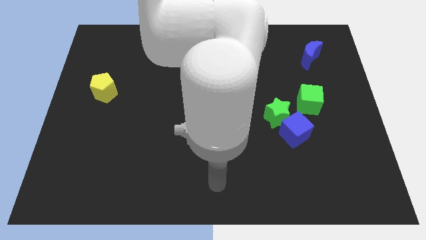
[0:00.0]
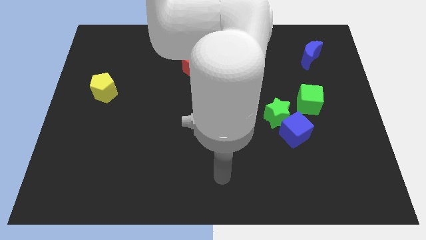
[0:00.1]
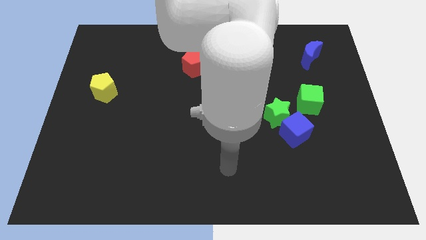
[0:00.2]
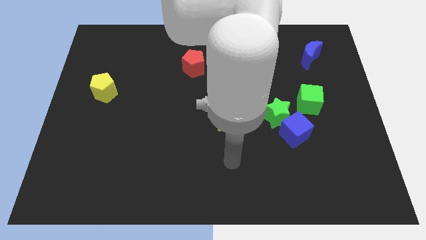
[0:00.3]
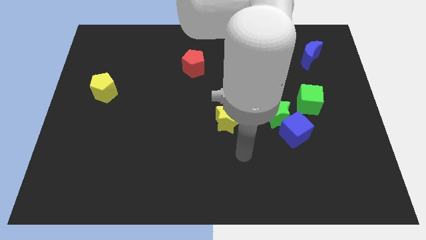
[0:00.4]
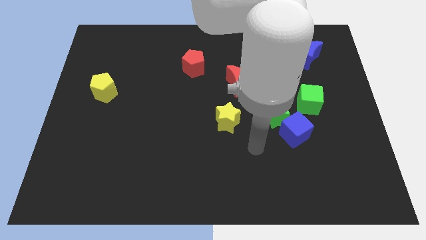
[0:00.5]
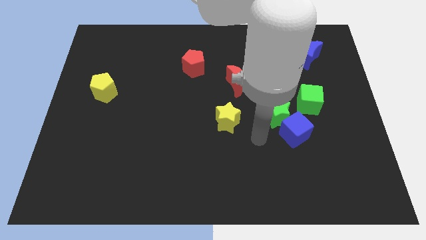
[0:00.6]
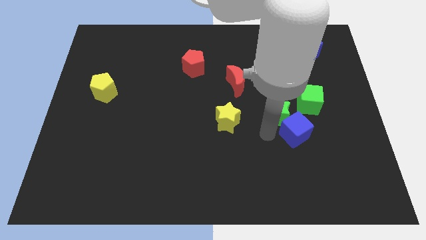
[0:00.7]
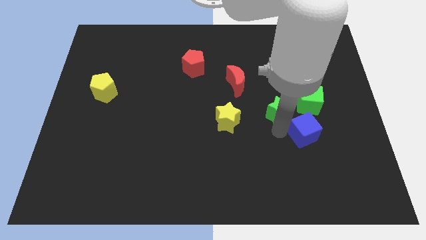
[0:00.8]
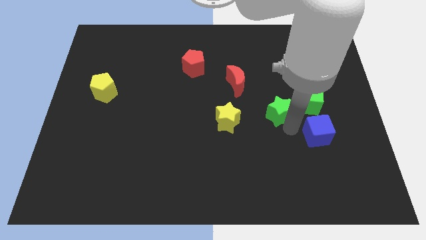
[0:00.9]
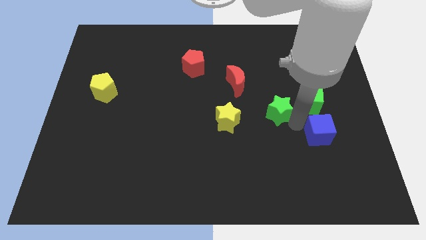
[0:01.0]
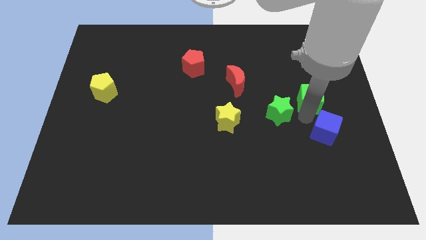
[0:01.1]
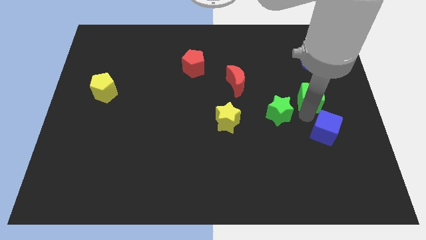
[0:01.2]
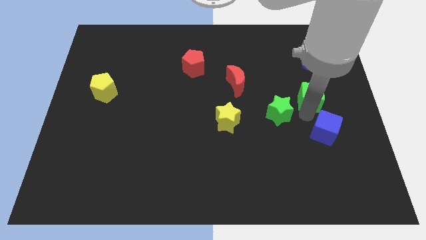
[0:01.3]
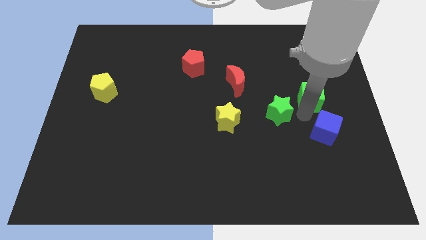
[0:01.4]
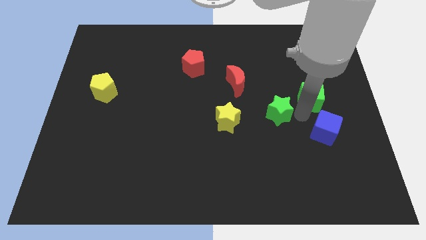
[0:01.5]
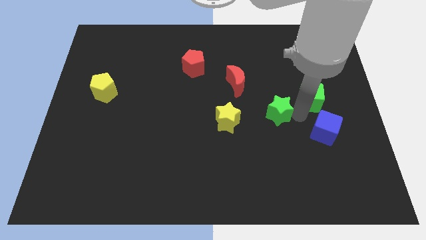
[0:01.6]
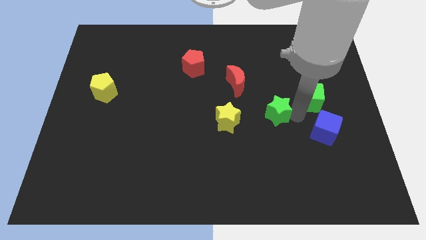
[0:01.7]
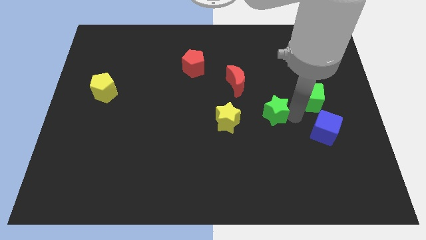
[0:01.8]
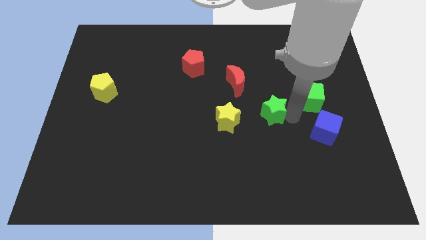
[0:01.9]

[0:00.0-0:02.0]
move the green star away from the blue cube and green cube

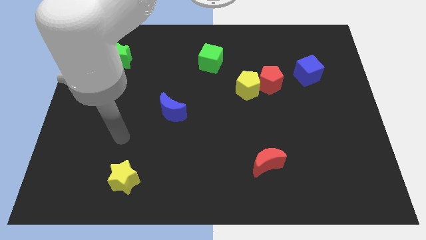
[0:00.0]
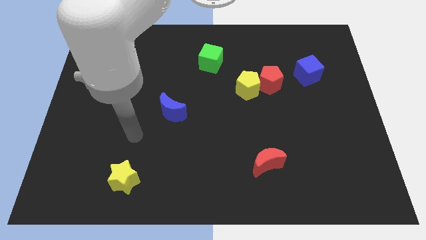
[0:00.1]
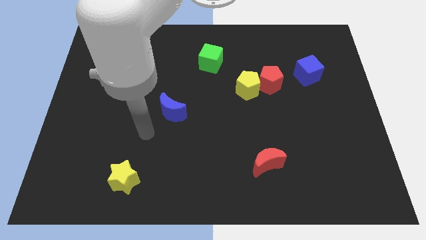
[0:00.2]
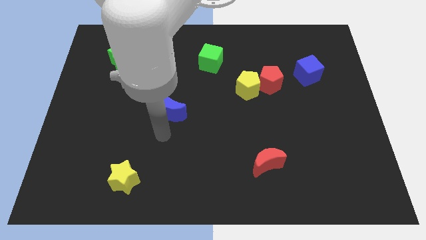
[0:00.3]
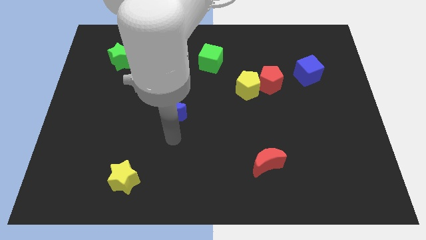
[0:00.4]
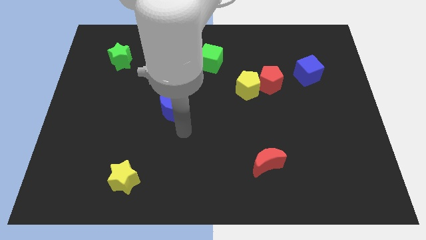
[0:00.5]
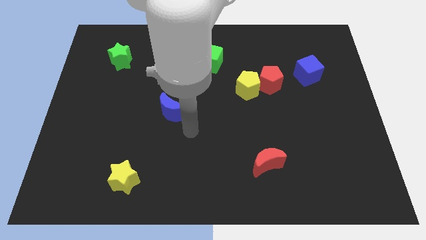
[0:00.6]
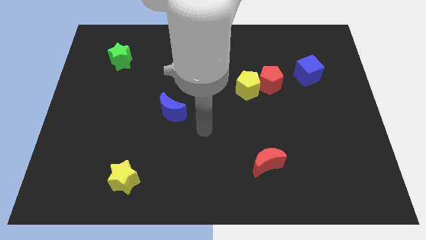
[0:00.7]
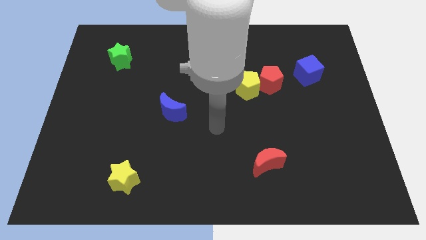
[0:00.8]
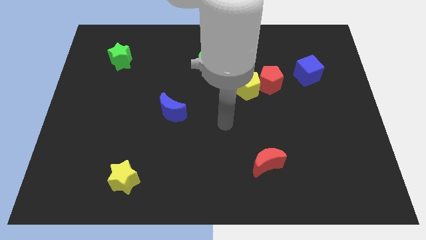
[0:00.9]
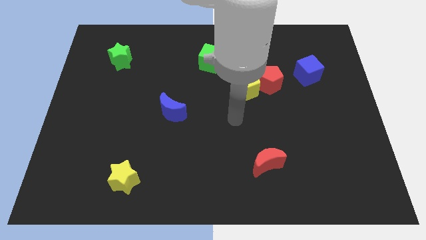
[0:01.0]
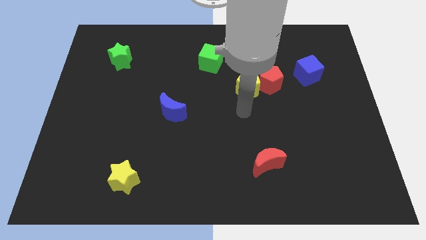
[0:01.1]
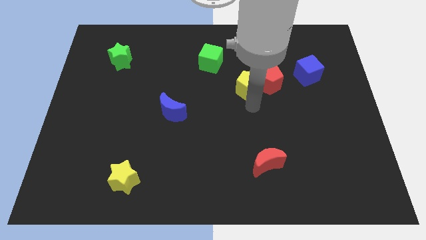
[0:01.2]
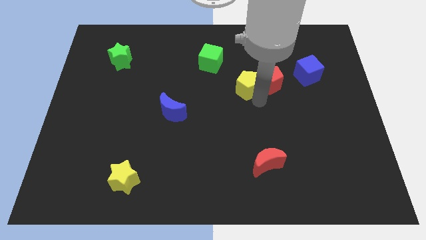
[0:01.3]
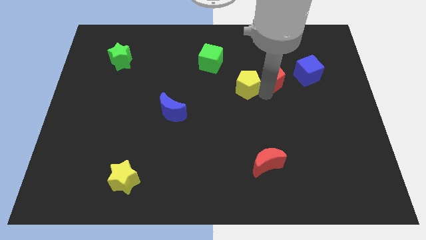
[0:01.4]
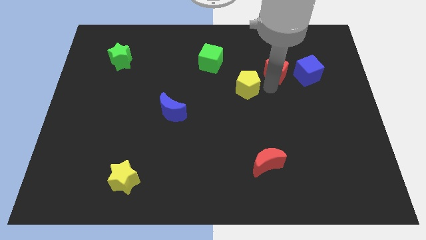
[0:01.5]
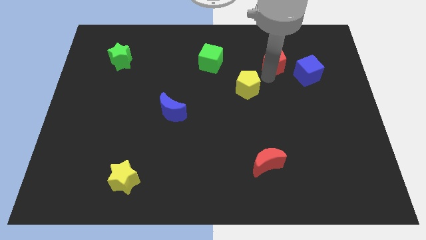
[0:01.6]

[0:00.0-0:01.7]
move the yellow pentagon away from the red pentagon

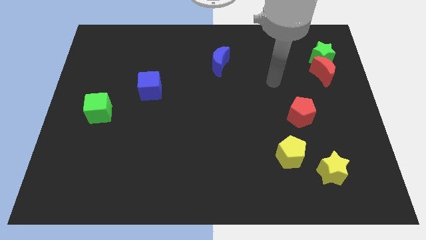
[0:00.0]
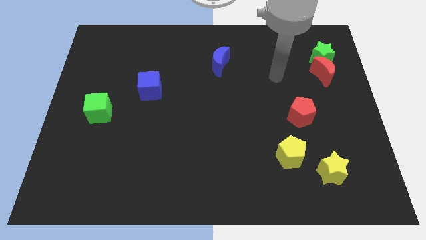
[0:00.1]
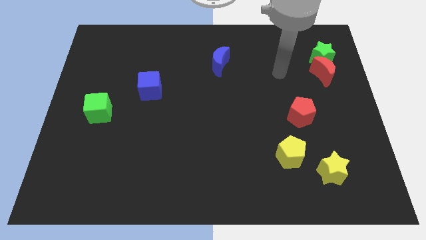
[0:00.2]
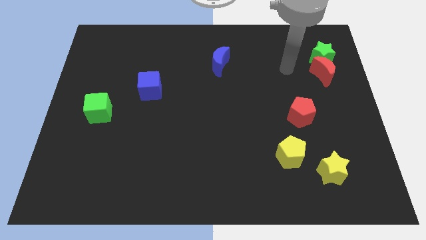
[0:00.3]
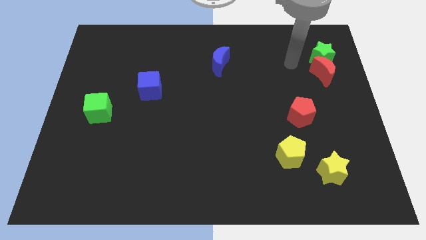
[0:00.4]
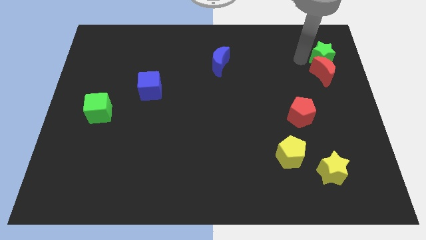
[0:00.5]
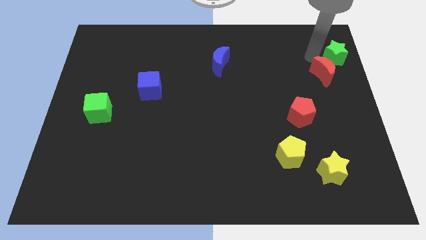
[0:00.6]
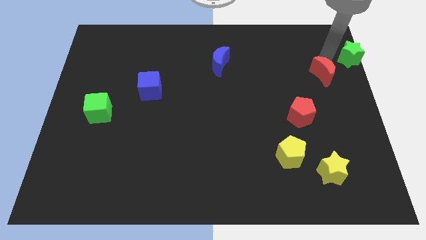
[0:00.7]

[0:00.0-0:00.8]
pull the red moon apart from the green star

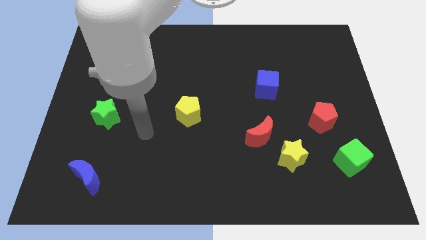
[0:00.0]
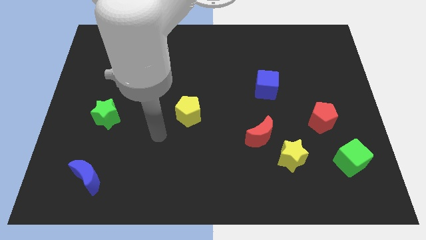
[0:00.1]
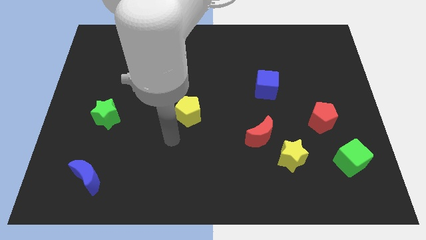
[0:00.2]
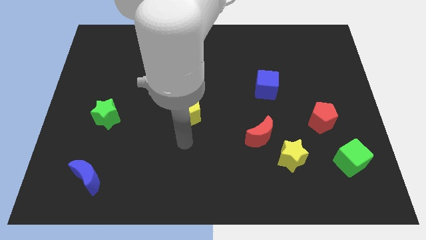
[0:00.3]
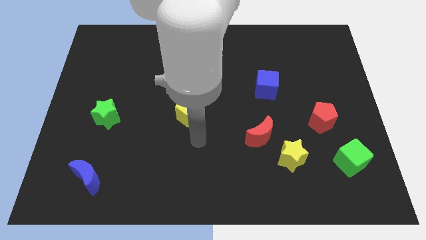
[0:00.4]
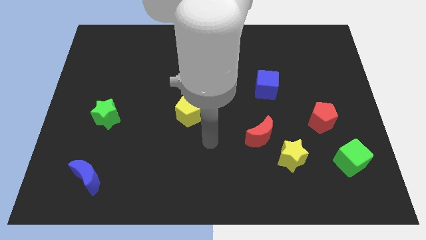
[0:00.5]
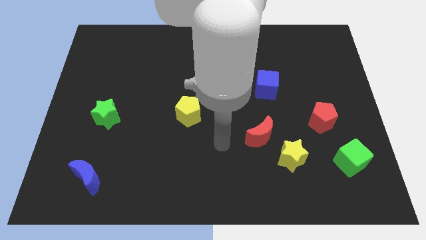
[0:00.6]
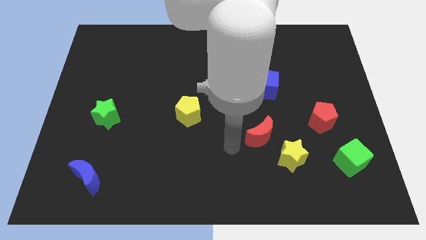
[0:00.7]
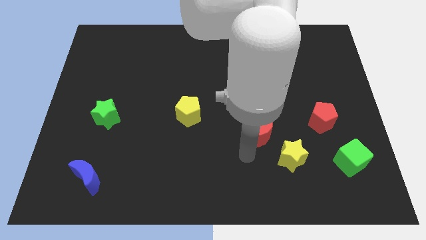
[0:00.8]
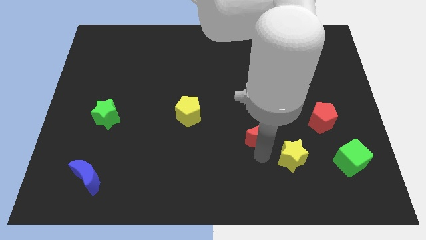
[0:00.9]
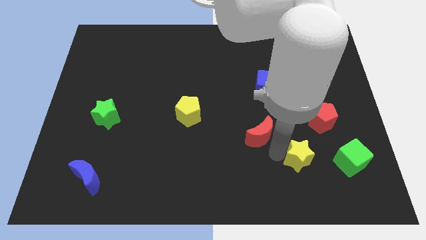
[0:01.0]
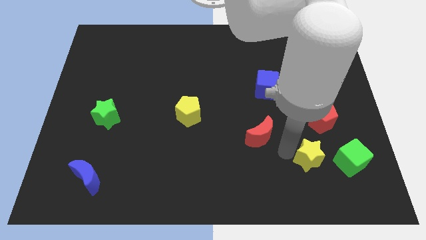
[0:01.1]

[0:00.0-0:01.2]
pull the red moon apart from the yellow star

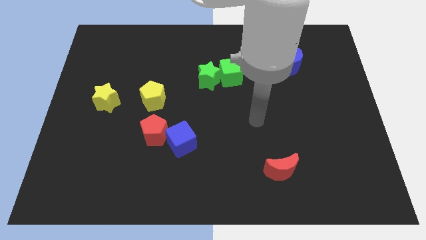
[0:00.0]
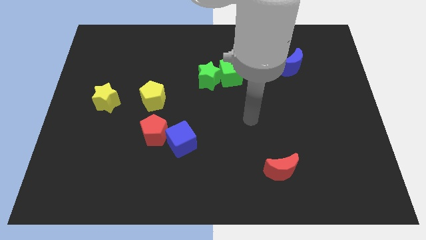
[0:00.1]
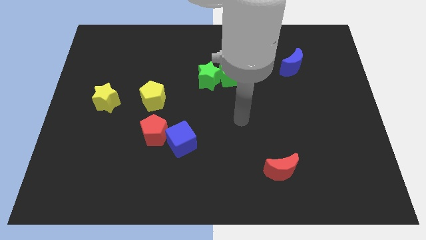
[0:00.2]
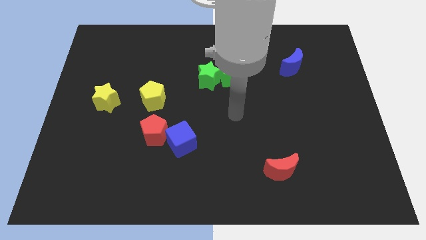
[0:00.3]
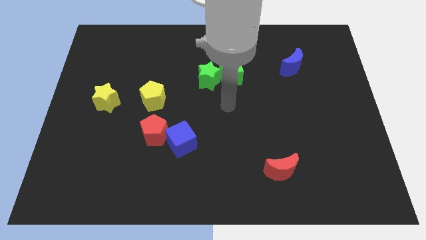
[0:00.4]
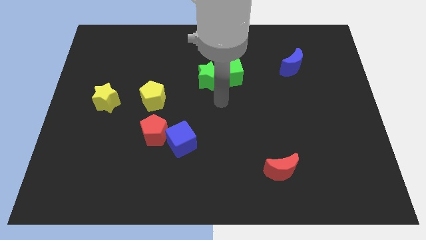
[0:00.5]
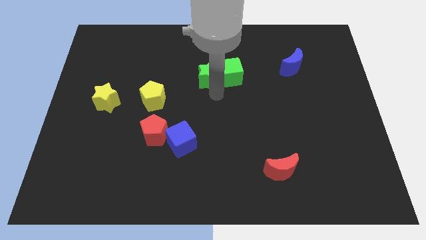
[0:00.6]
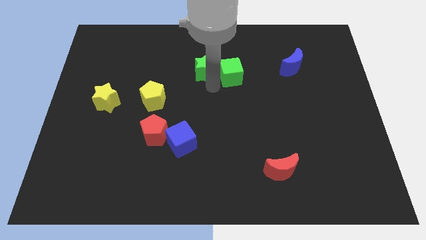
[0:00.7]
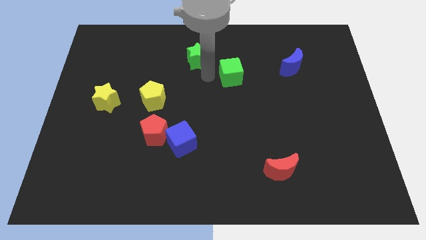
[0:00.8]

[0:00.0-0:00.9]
pull the green cube apart from the green star

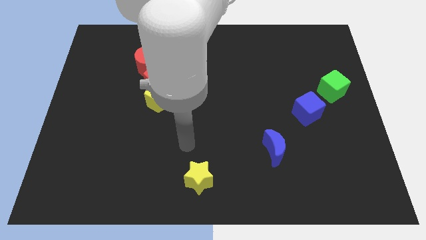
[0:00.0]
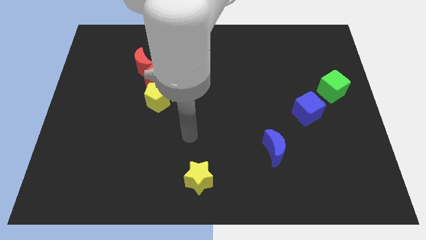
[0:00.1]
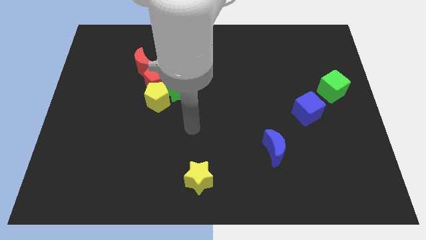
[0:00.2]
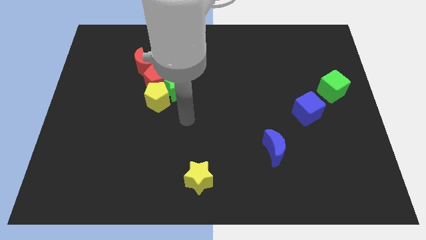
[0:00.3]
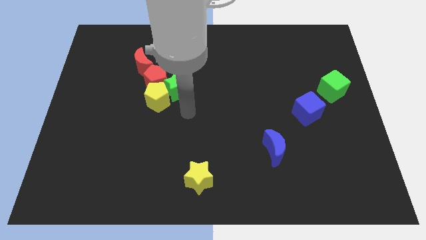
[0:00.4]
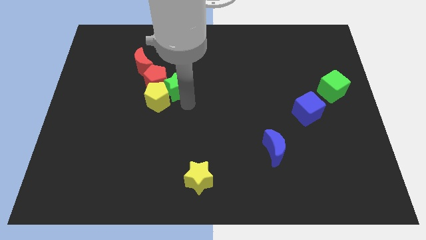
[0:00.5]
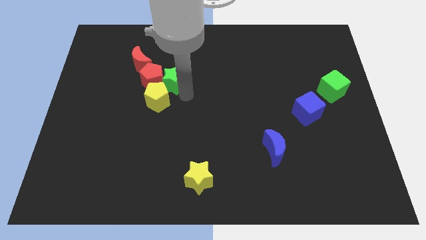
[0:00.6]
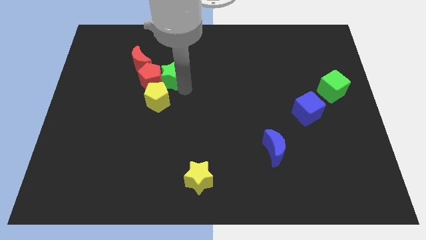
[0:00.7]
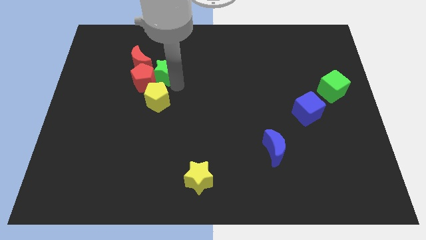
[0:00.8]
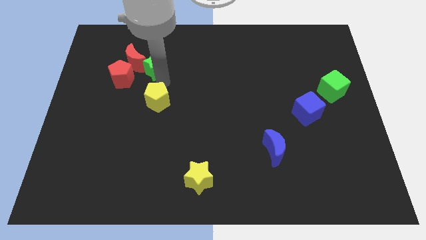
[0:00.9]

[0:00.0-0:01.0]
separate the yellow pentagon from the green star and red pentagon

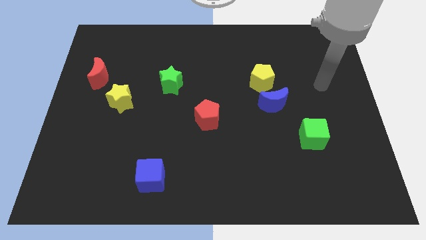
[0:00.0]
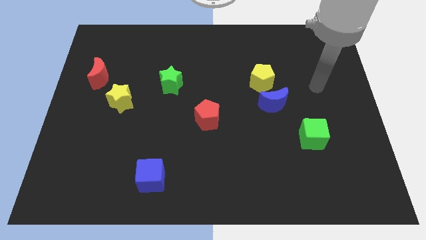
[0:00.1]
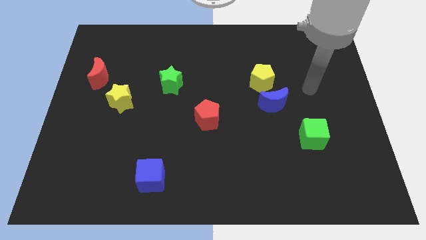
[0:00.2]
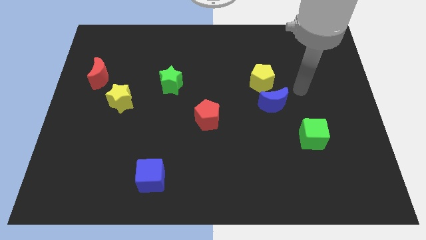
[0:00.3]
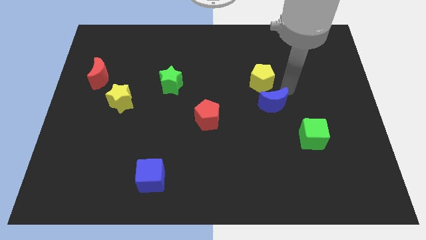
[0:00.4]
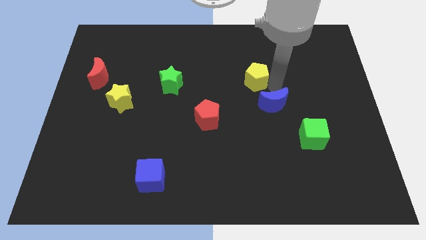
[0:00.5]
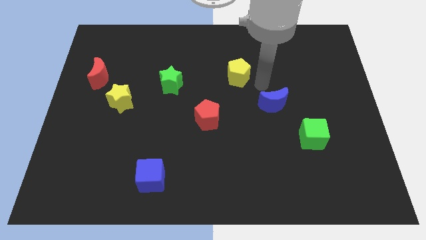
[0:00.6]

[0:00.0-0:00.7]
pull the blue moon apart from the yellow pentagon

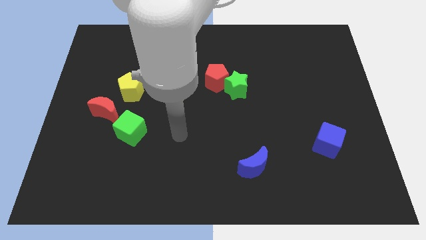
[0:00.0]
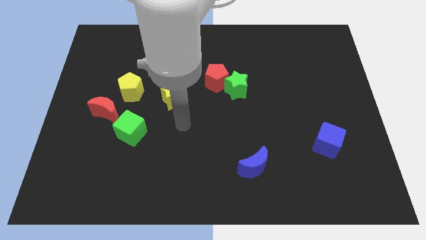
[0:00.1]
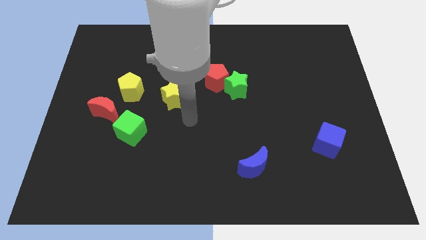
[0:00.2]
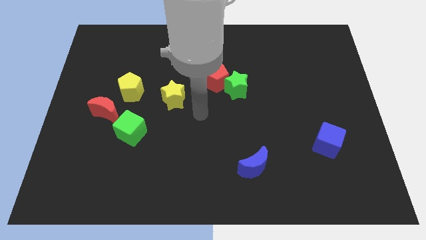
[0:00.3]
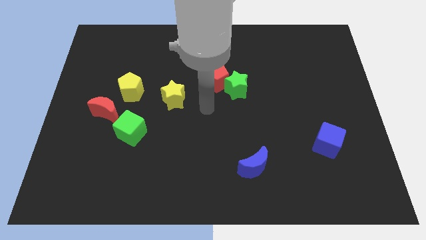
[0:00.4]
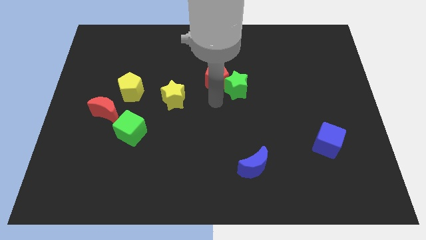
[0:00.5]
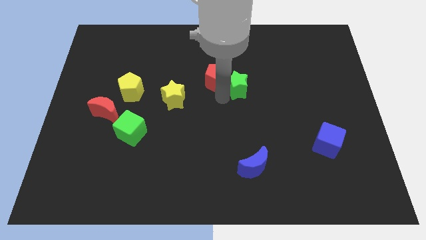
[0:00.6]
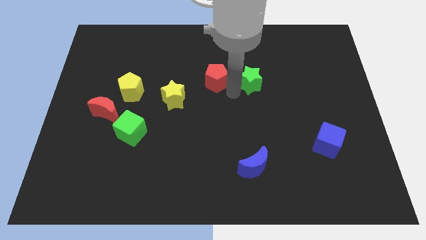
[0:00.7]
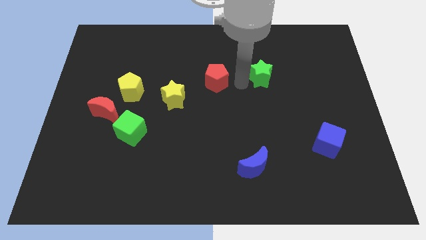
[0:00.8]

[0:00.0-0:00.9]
move the red pentagon away from the green star
